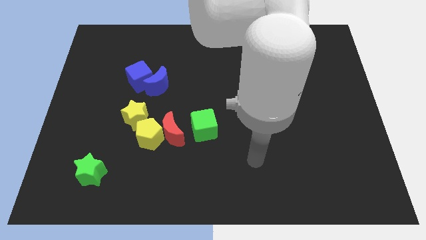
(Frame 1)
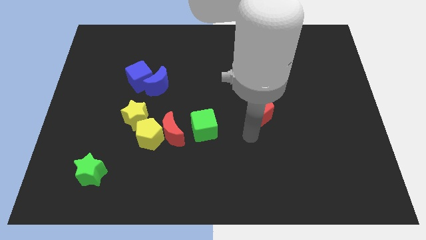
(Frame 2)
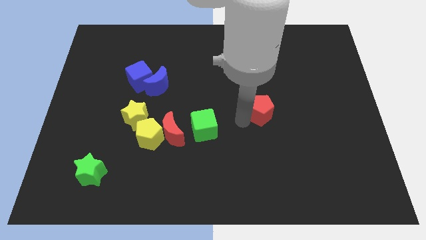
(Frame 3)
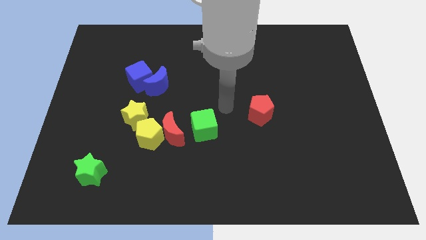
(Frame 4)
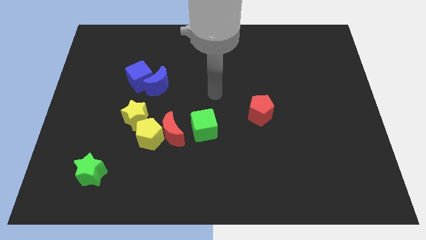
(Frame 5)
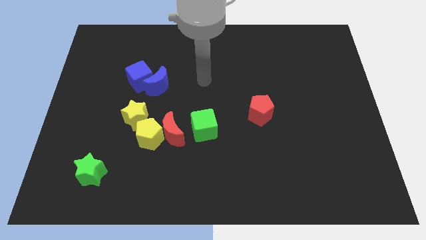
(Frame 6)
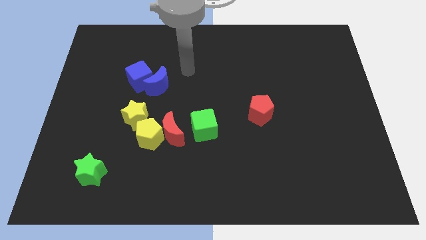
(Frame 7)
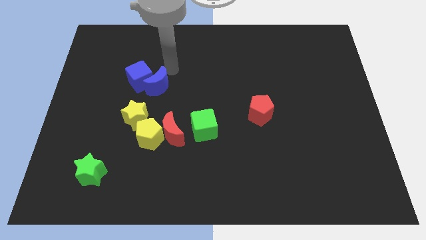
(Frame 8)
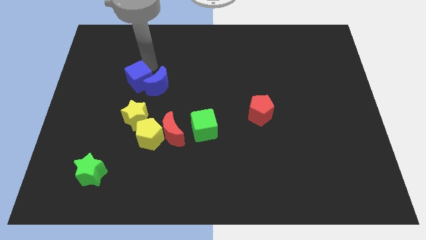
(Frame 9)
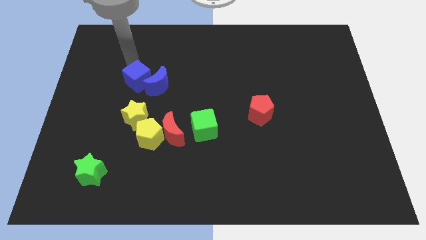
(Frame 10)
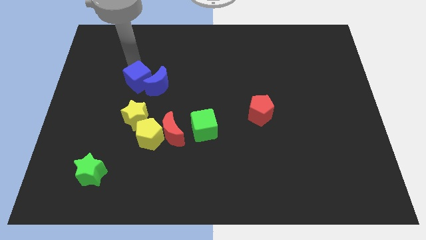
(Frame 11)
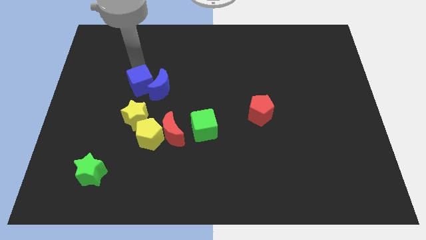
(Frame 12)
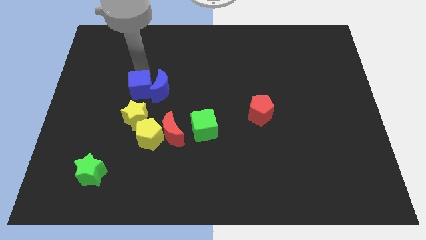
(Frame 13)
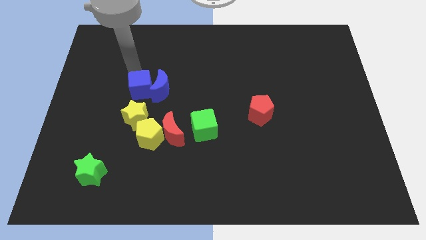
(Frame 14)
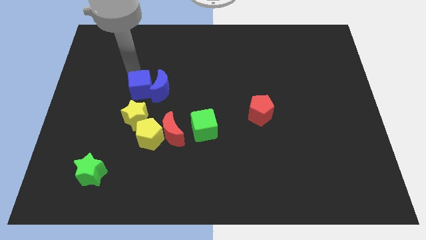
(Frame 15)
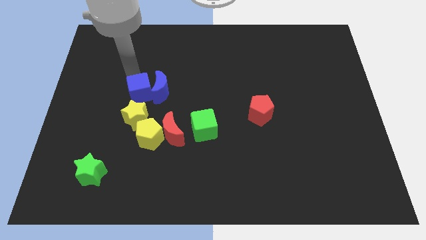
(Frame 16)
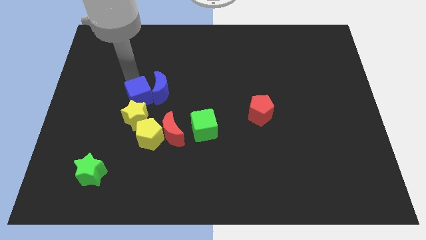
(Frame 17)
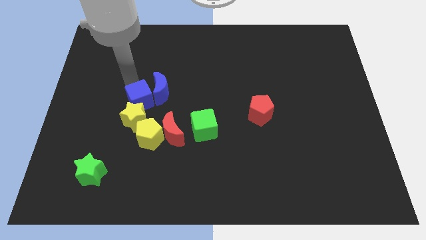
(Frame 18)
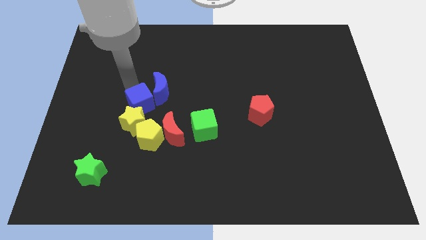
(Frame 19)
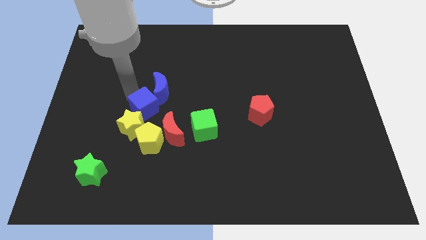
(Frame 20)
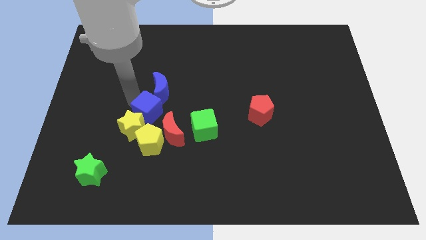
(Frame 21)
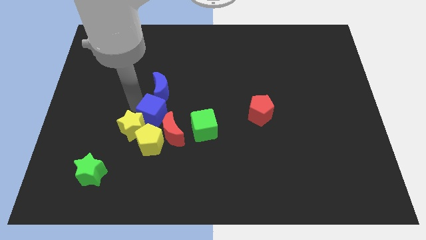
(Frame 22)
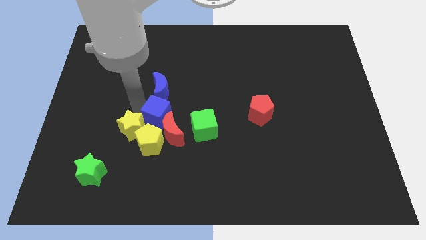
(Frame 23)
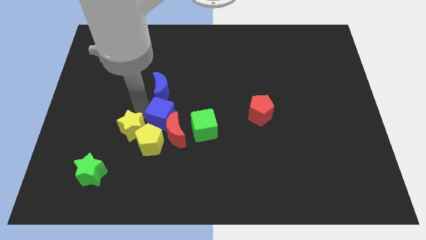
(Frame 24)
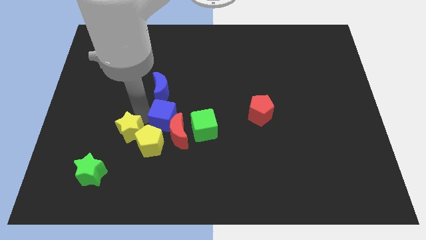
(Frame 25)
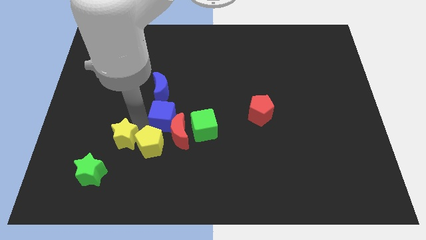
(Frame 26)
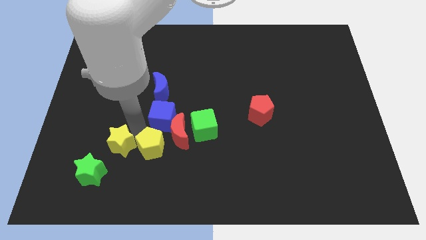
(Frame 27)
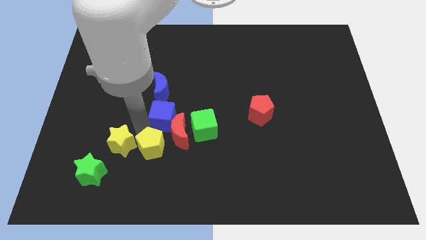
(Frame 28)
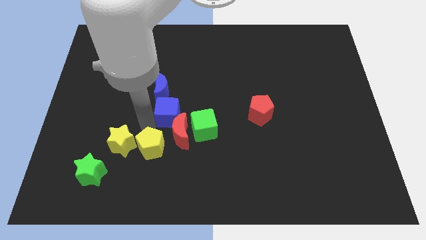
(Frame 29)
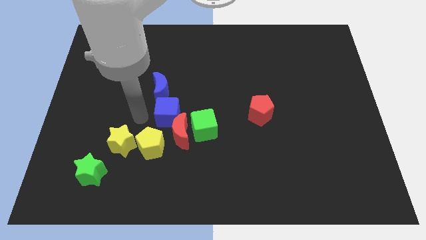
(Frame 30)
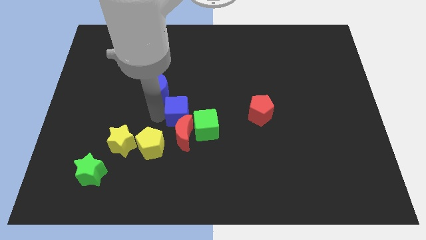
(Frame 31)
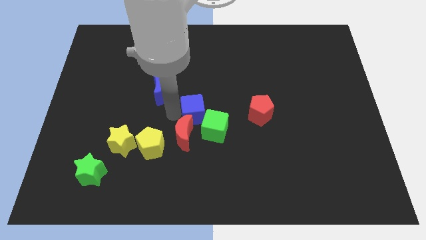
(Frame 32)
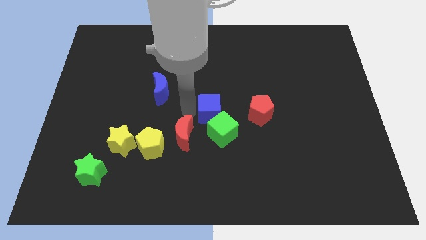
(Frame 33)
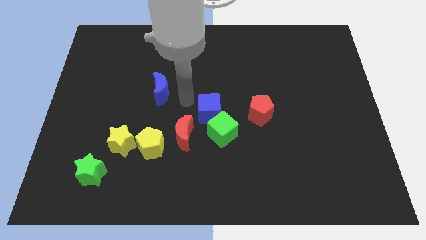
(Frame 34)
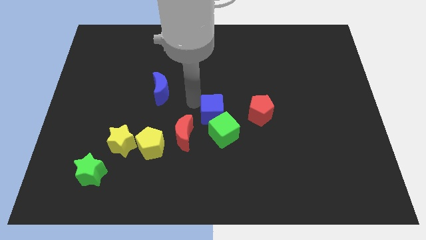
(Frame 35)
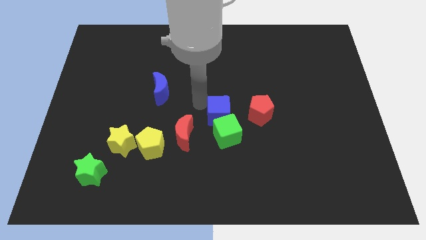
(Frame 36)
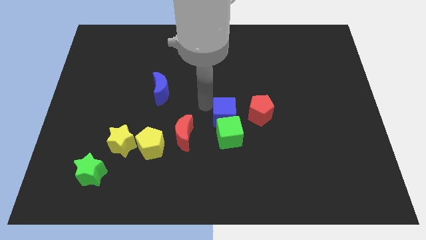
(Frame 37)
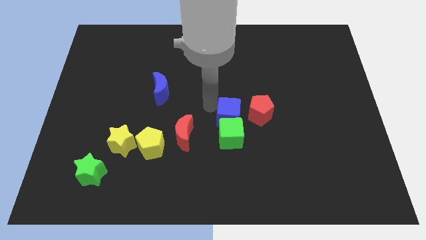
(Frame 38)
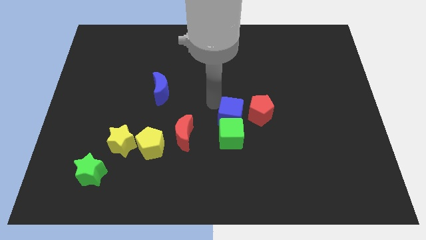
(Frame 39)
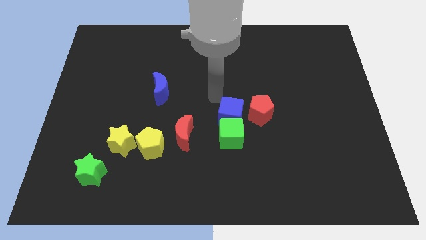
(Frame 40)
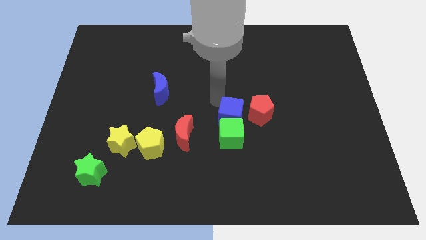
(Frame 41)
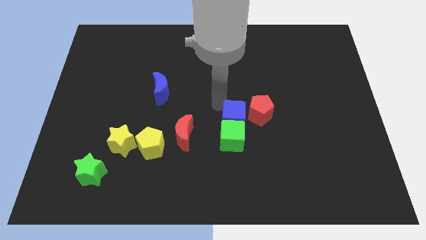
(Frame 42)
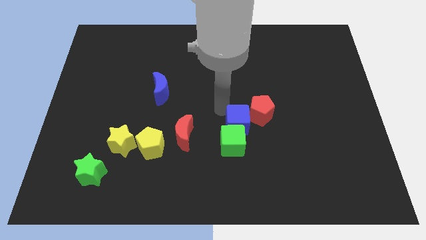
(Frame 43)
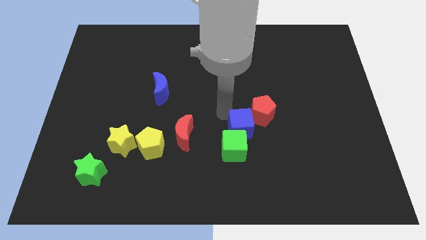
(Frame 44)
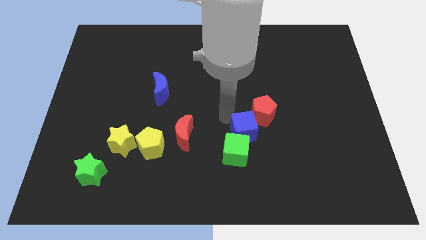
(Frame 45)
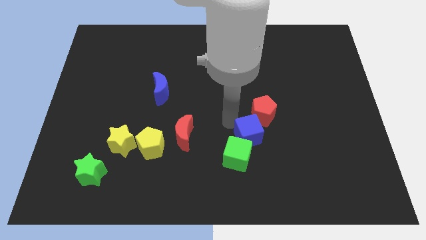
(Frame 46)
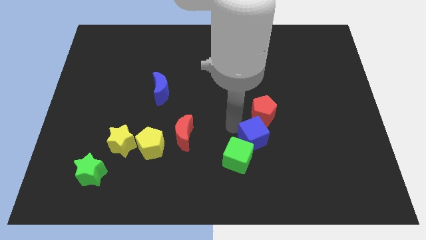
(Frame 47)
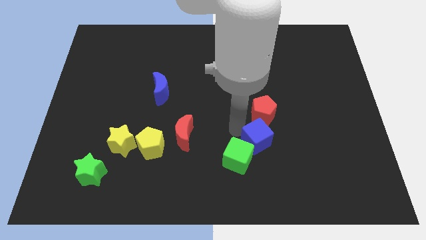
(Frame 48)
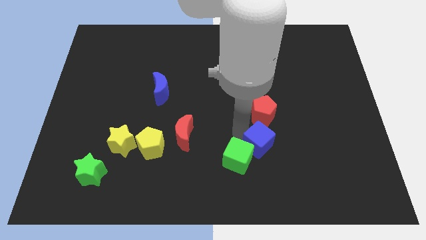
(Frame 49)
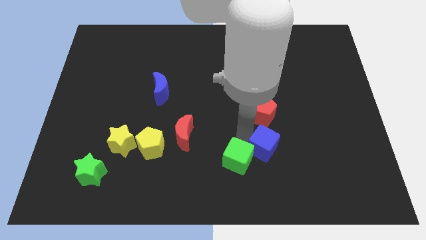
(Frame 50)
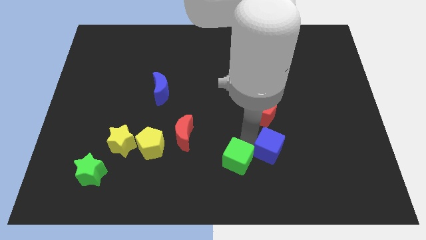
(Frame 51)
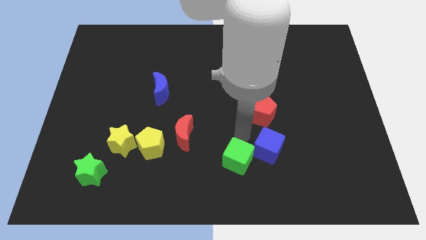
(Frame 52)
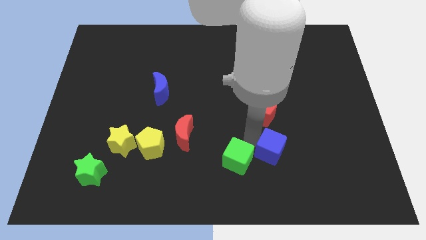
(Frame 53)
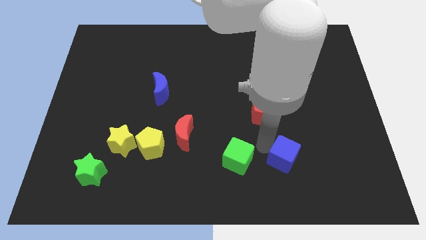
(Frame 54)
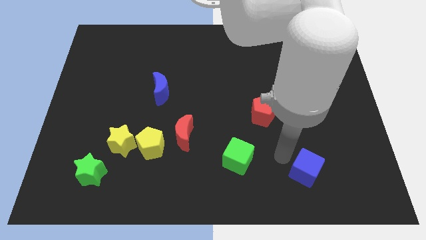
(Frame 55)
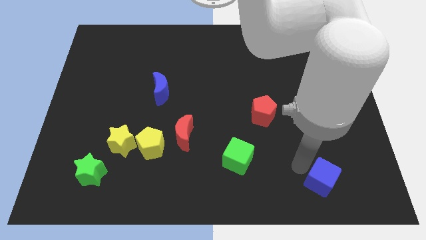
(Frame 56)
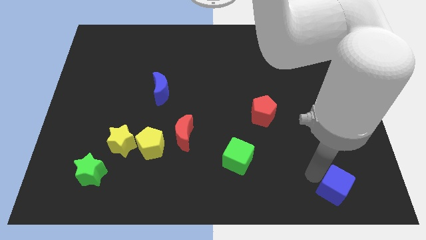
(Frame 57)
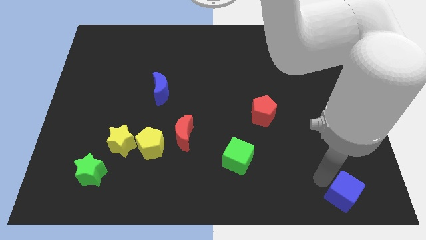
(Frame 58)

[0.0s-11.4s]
push the blue cube to the bottom right of the board
